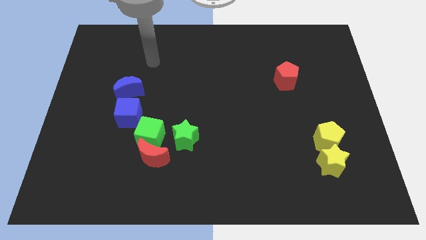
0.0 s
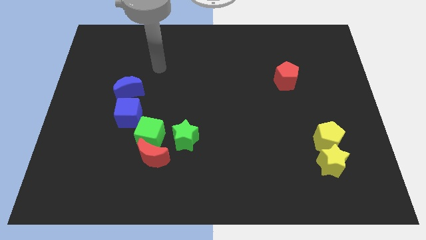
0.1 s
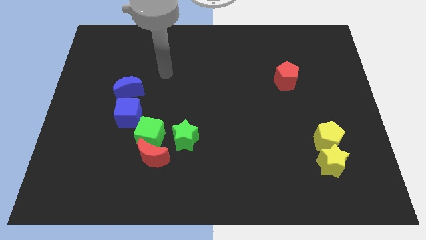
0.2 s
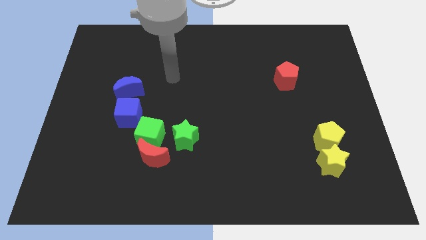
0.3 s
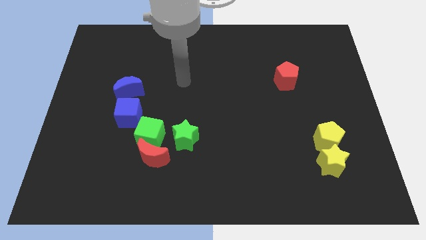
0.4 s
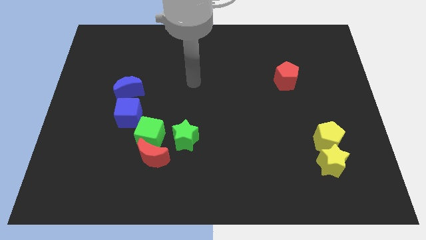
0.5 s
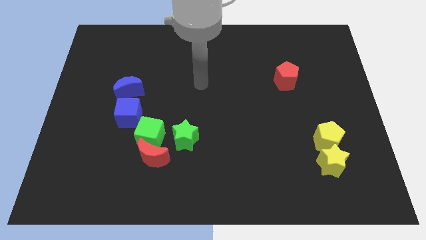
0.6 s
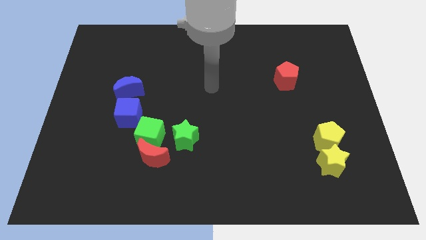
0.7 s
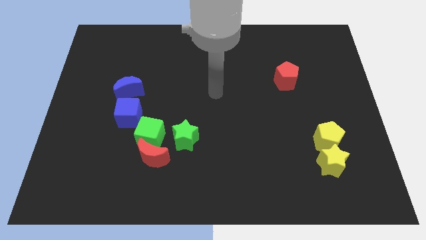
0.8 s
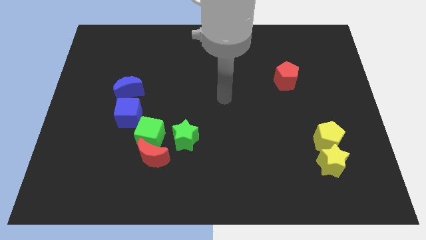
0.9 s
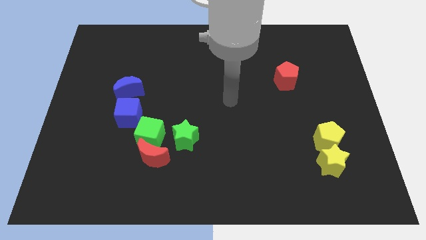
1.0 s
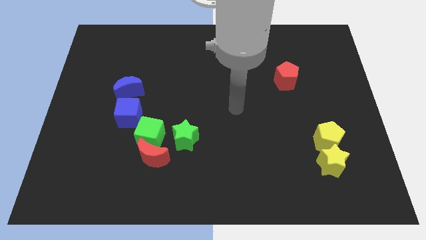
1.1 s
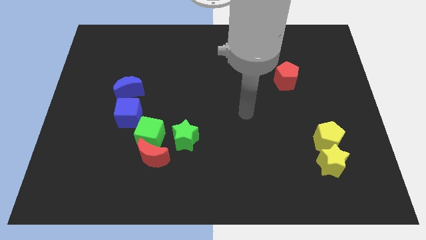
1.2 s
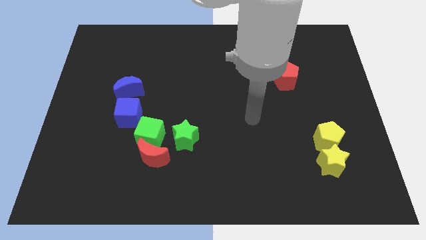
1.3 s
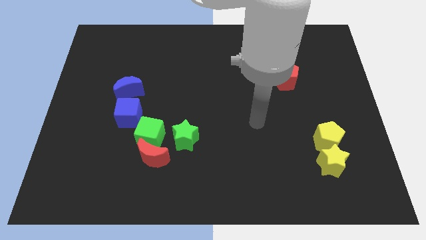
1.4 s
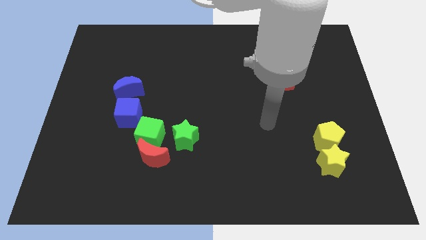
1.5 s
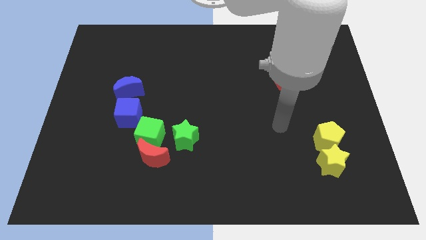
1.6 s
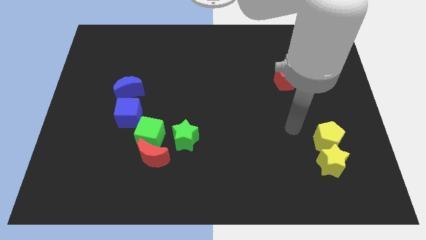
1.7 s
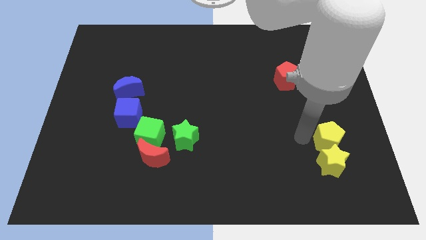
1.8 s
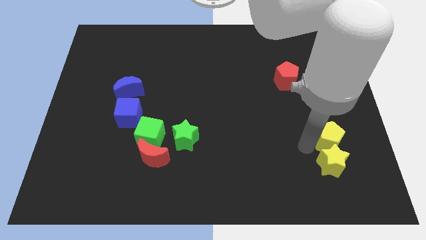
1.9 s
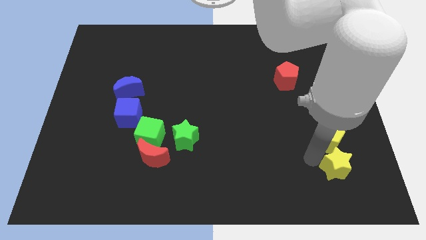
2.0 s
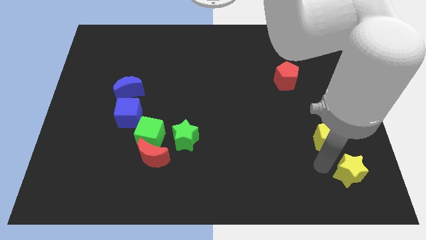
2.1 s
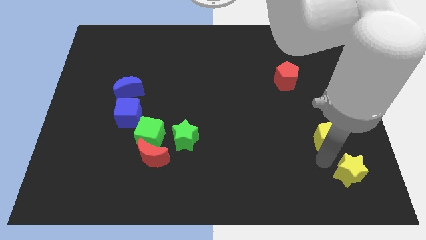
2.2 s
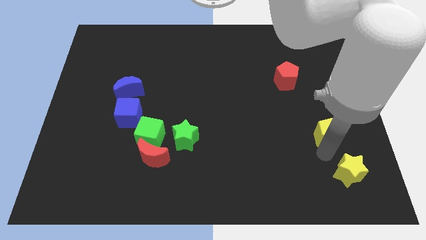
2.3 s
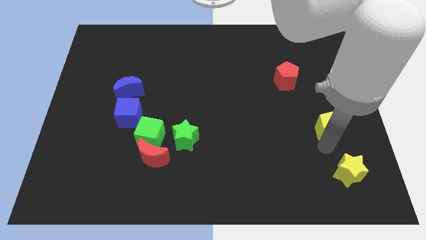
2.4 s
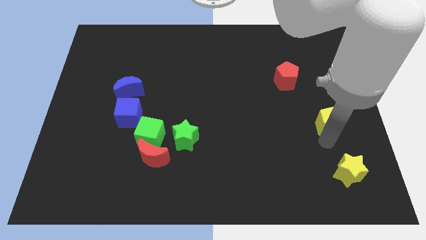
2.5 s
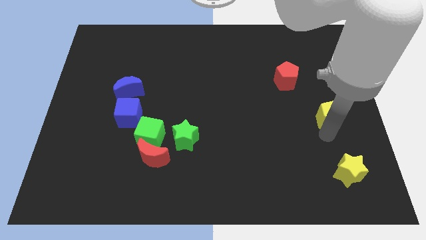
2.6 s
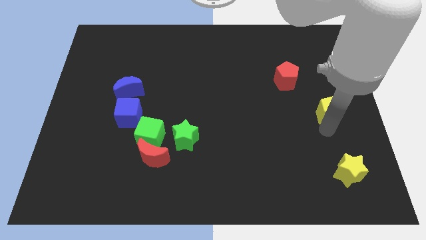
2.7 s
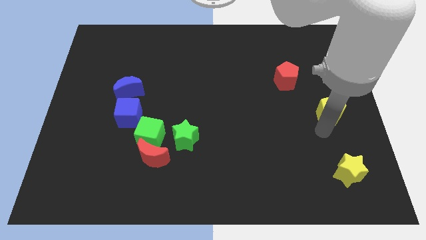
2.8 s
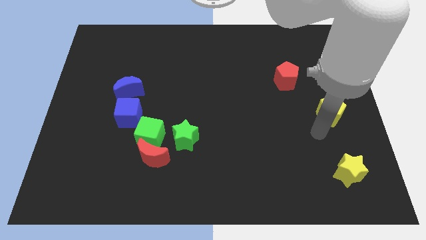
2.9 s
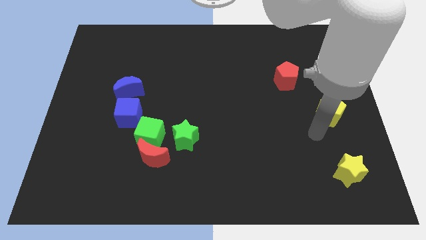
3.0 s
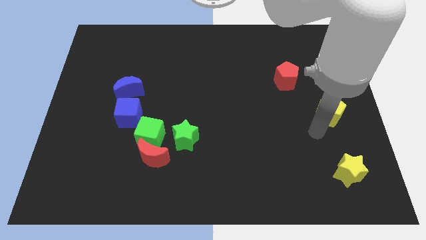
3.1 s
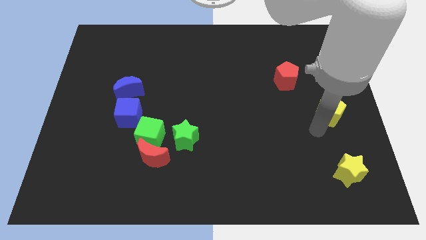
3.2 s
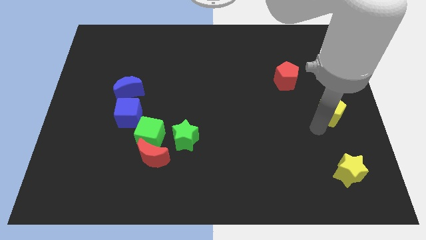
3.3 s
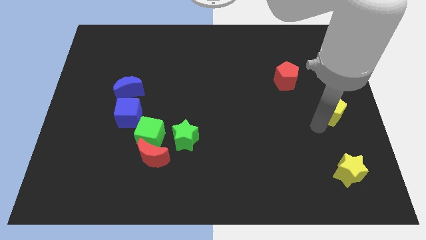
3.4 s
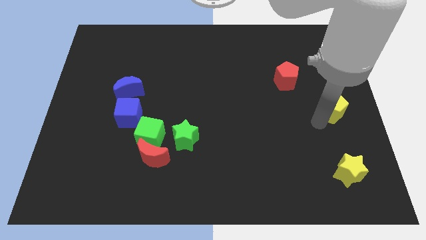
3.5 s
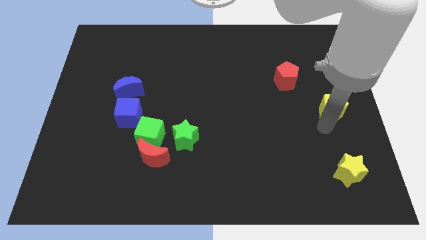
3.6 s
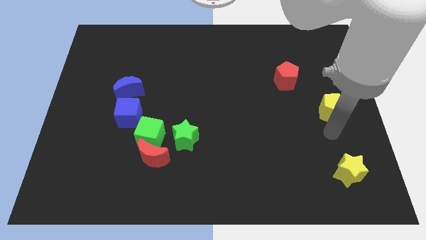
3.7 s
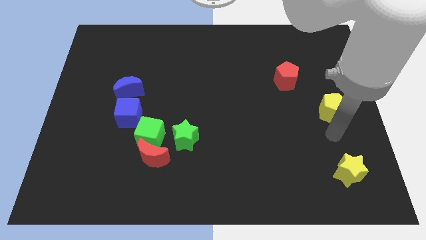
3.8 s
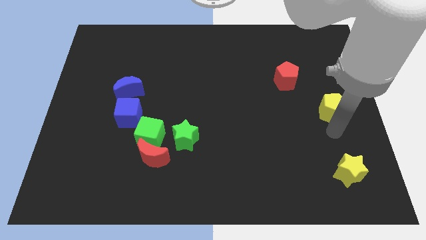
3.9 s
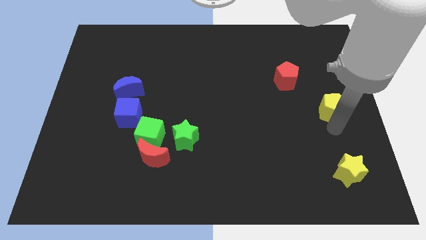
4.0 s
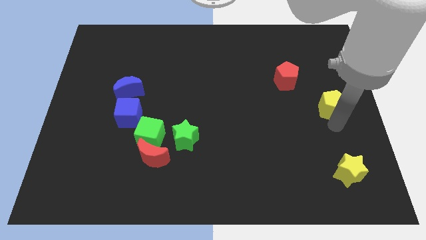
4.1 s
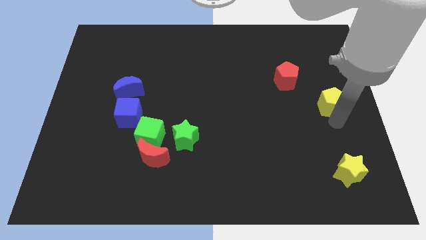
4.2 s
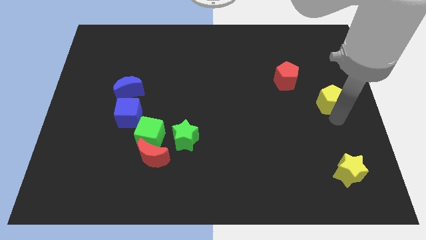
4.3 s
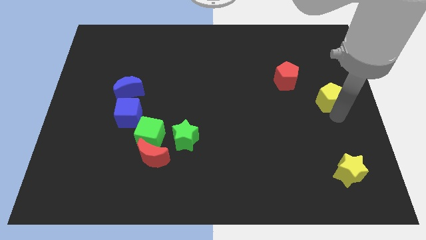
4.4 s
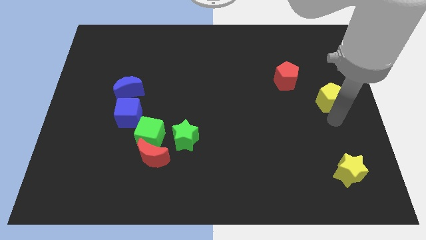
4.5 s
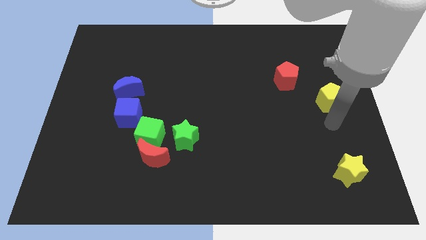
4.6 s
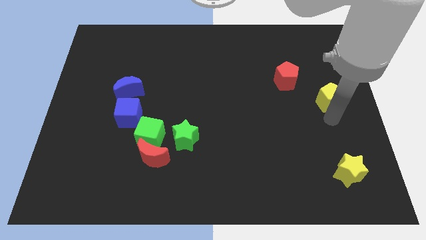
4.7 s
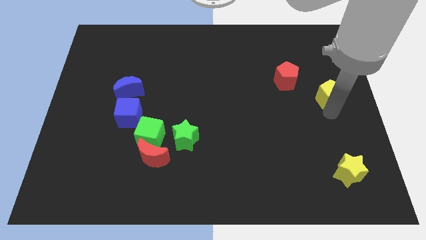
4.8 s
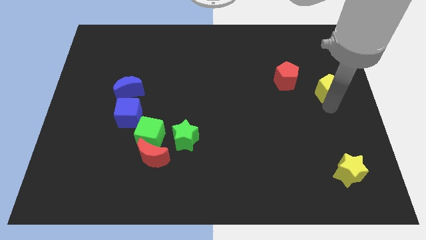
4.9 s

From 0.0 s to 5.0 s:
slide the yellow pentagon to the right of the red pentagon

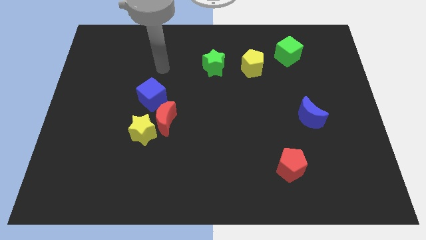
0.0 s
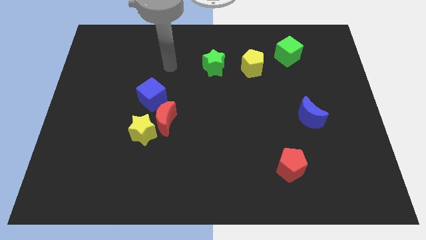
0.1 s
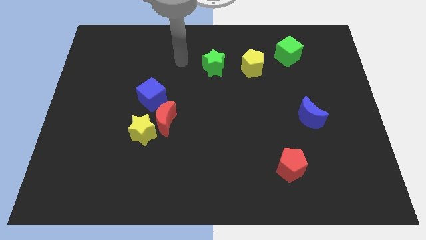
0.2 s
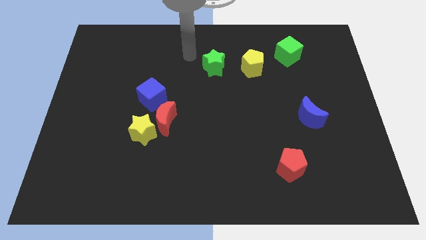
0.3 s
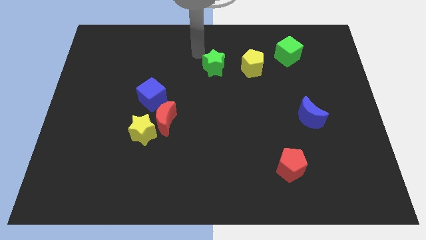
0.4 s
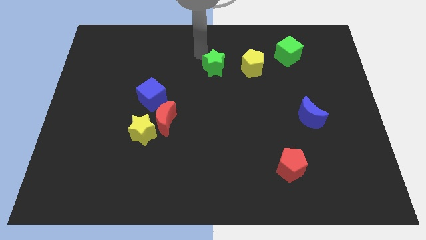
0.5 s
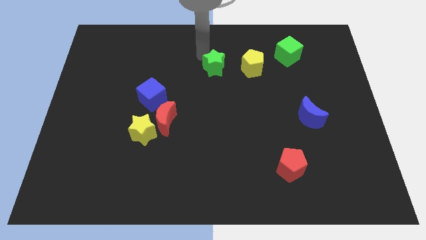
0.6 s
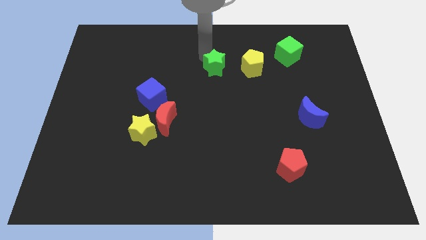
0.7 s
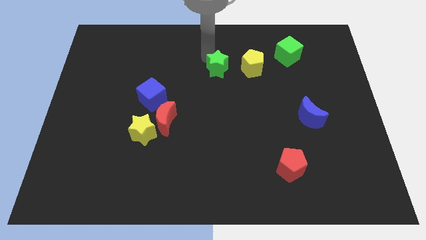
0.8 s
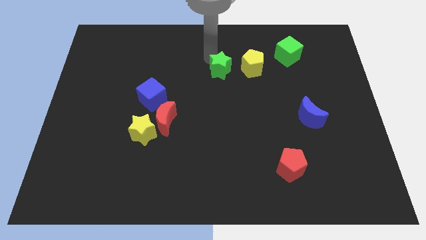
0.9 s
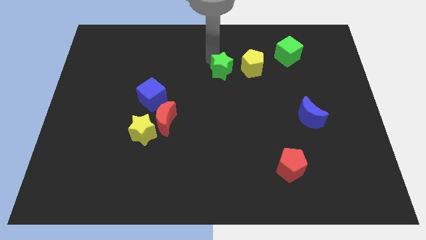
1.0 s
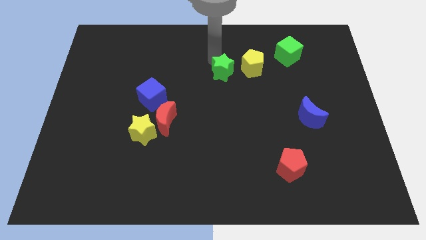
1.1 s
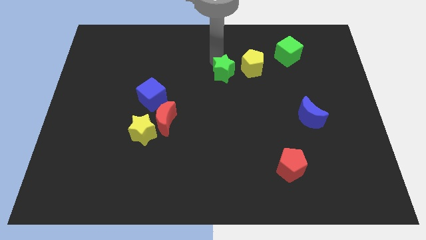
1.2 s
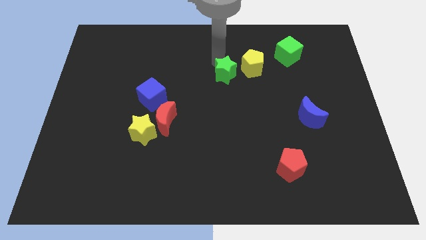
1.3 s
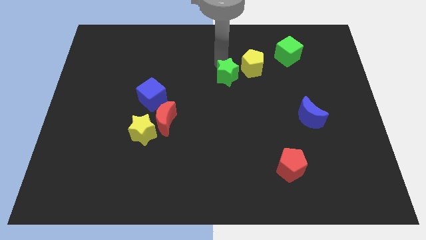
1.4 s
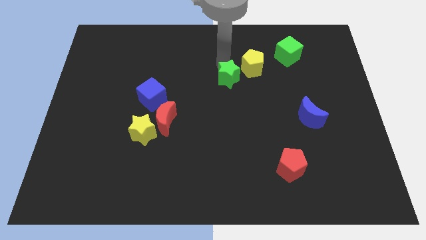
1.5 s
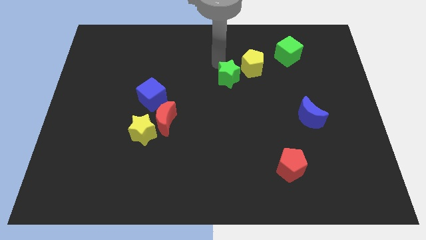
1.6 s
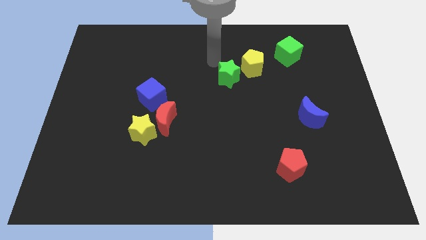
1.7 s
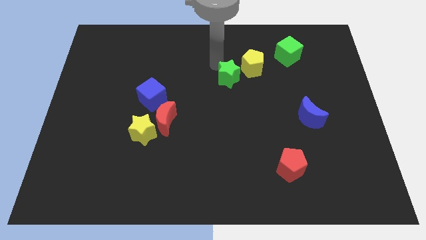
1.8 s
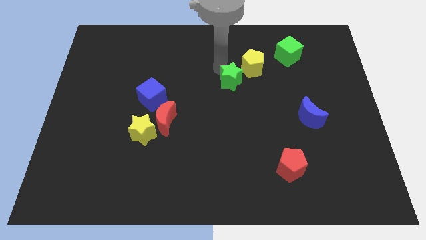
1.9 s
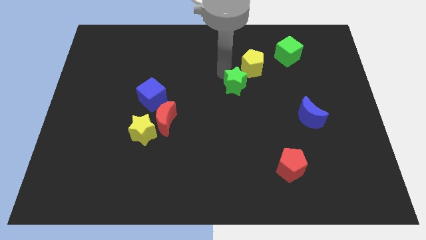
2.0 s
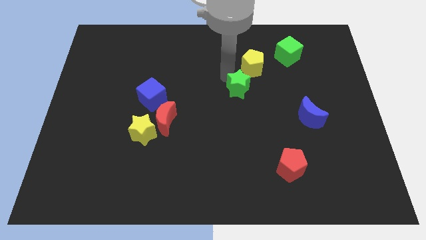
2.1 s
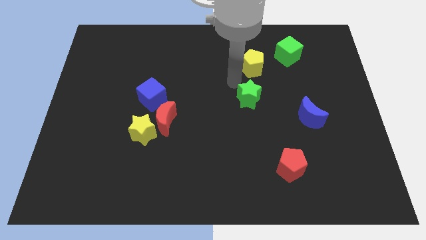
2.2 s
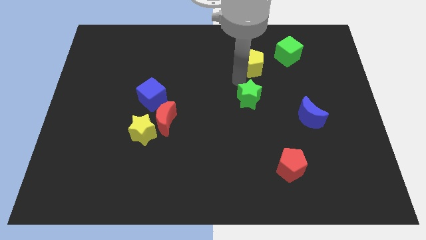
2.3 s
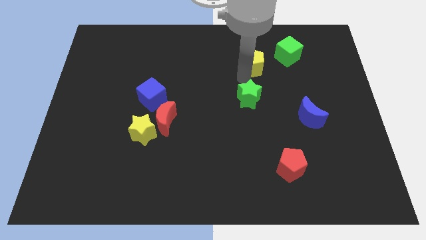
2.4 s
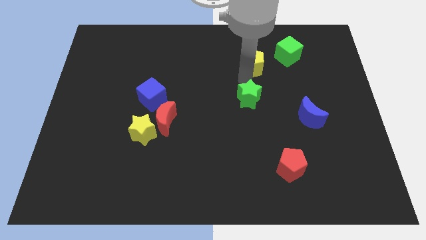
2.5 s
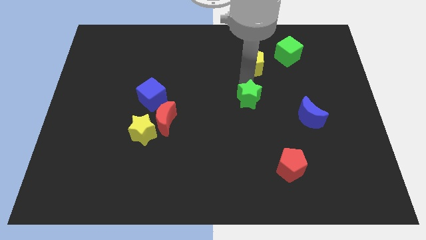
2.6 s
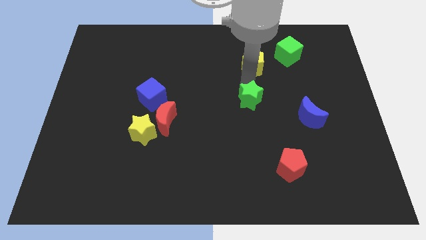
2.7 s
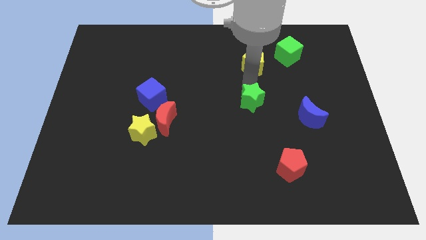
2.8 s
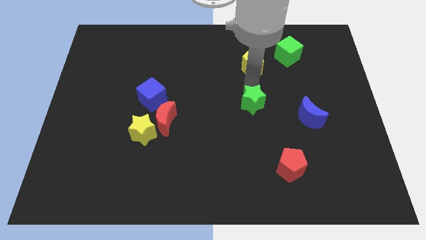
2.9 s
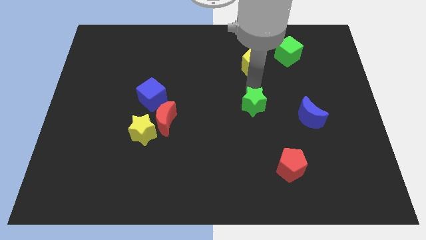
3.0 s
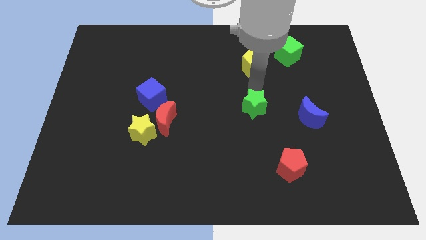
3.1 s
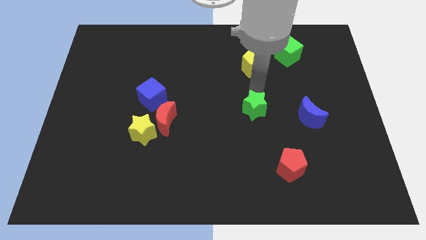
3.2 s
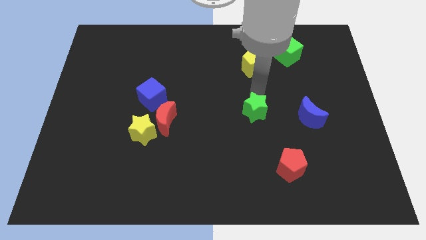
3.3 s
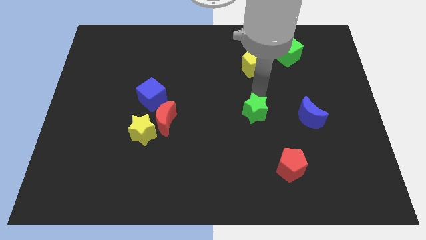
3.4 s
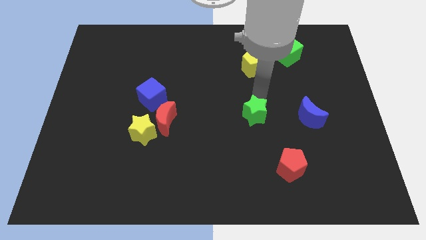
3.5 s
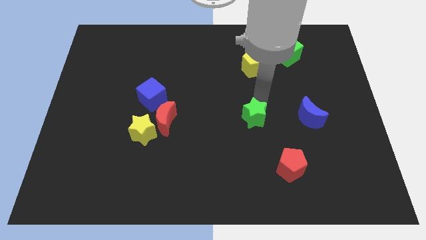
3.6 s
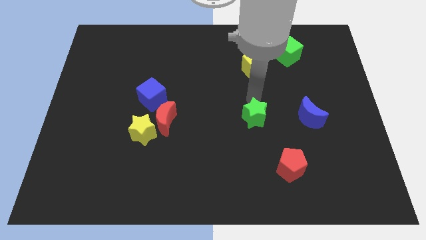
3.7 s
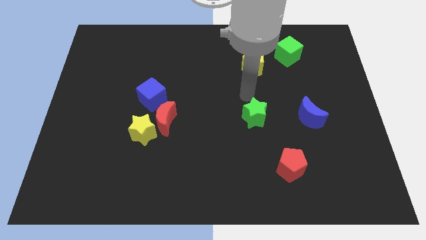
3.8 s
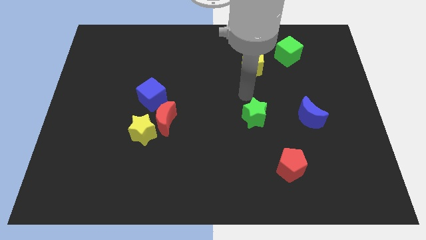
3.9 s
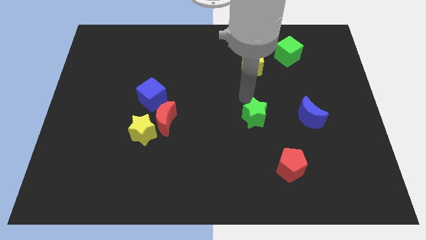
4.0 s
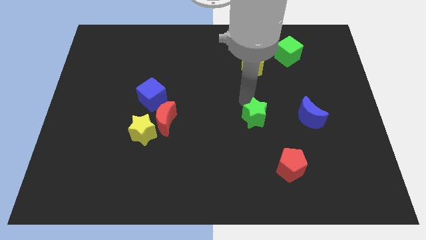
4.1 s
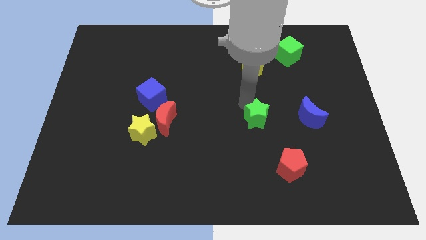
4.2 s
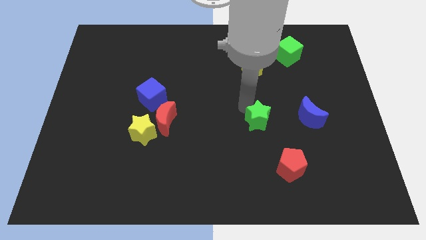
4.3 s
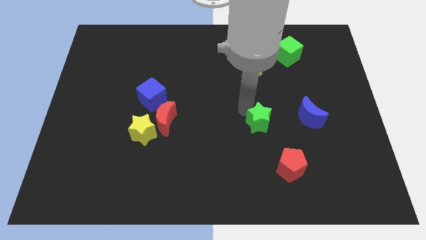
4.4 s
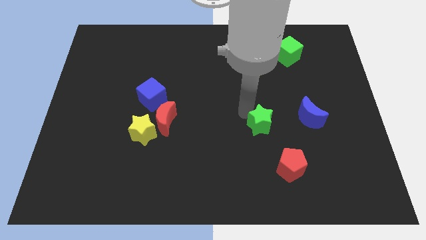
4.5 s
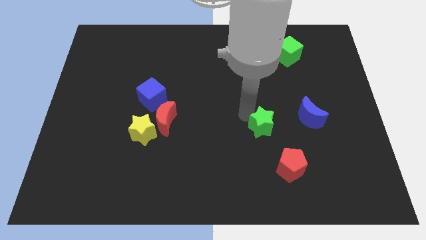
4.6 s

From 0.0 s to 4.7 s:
slide the green star to the top left of the red pentagon
